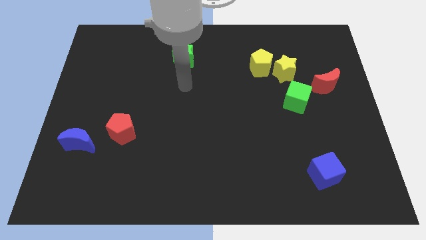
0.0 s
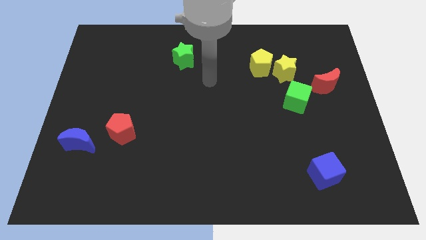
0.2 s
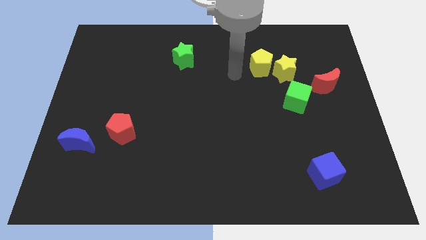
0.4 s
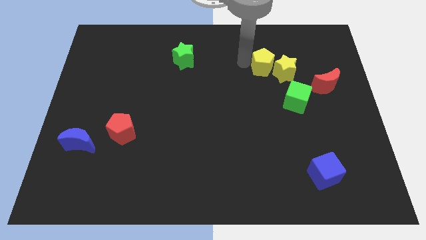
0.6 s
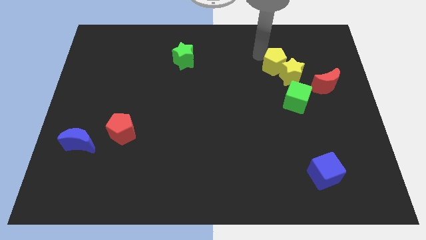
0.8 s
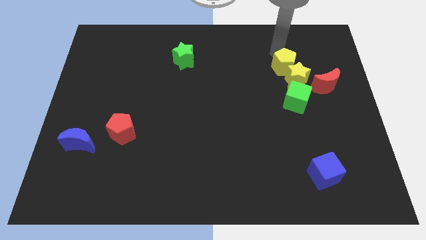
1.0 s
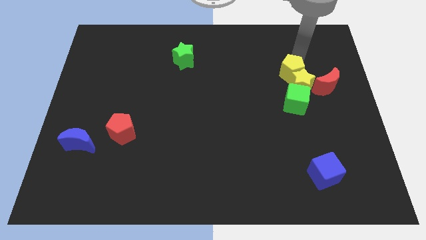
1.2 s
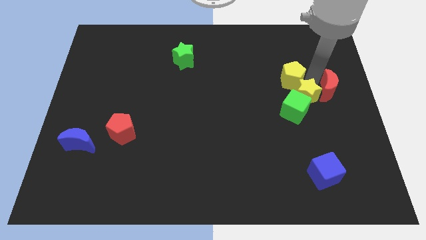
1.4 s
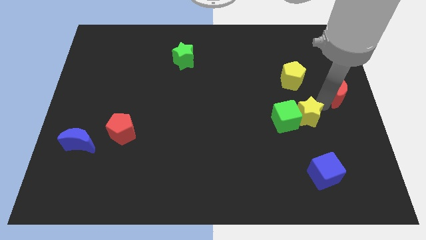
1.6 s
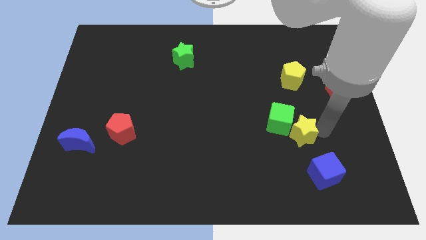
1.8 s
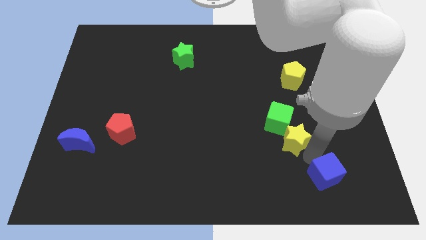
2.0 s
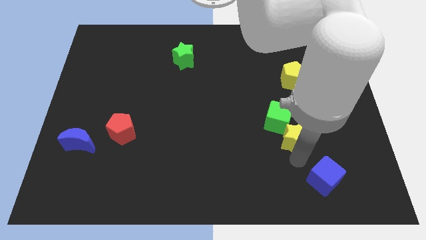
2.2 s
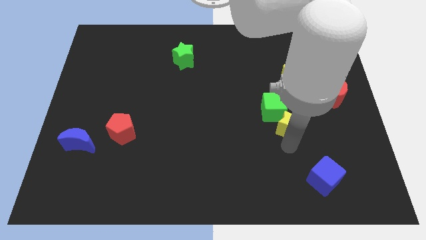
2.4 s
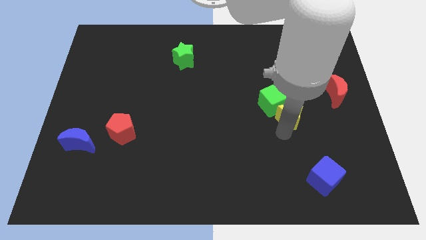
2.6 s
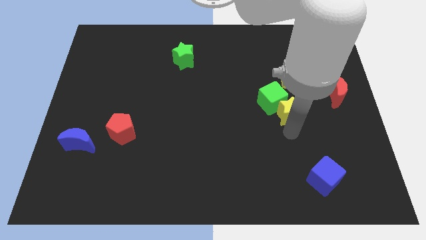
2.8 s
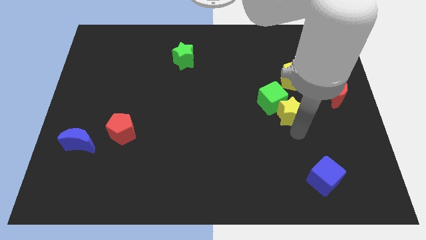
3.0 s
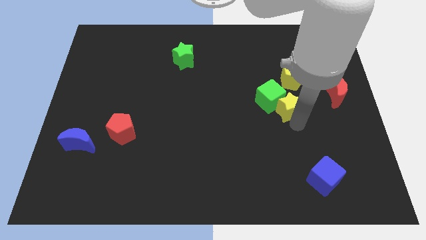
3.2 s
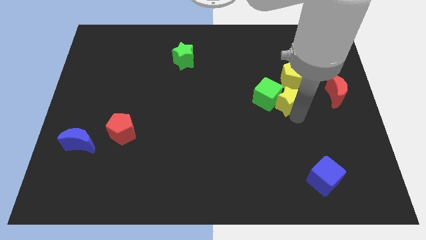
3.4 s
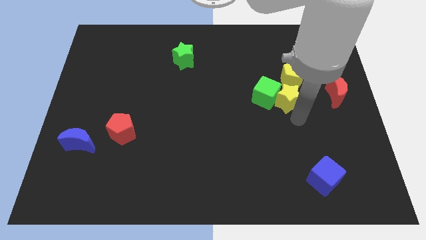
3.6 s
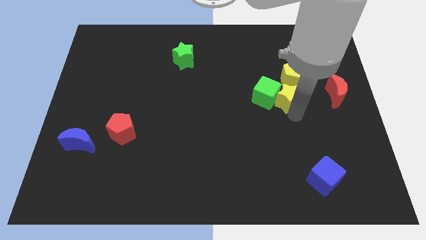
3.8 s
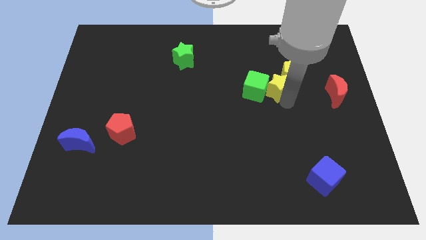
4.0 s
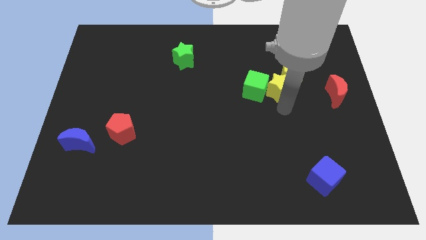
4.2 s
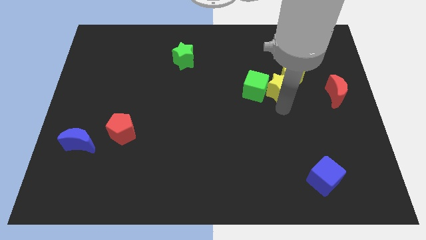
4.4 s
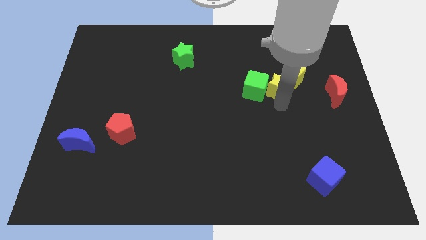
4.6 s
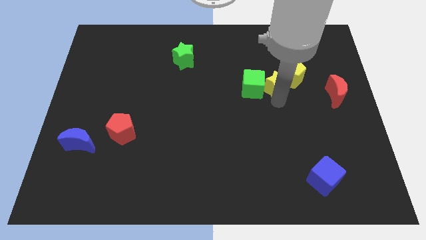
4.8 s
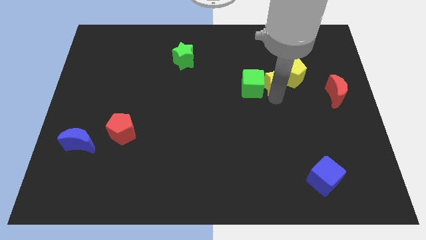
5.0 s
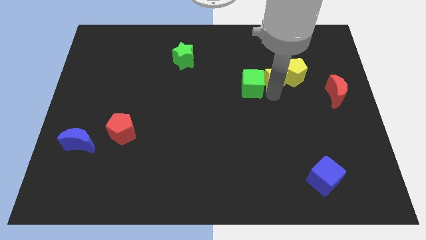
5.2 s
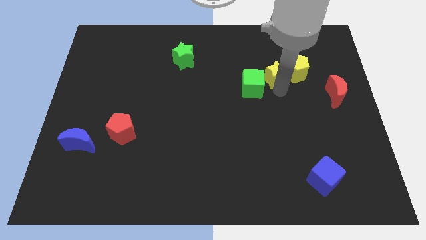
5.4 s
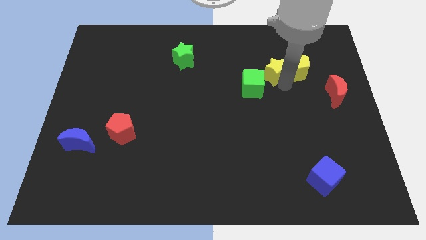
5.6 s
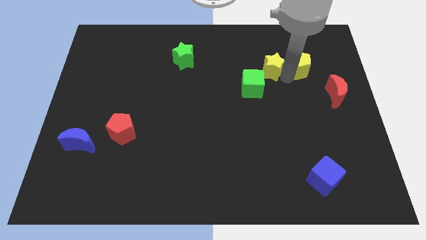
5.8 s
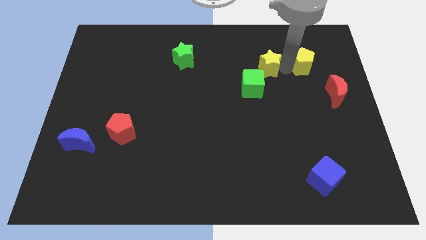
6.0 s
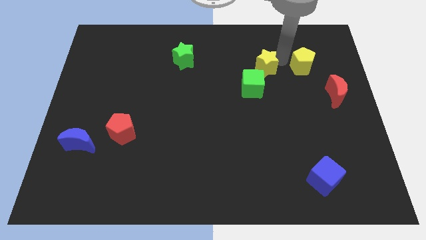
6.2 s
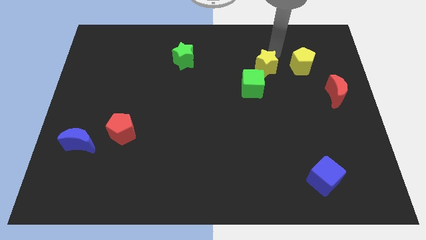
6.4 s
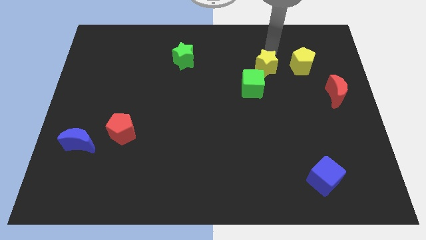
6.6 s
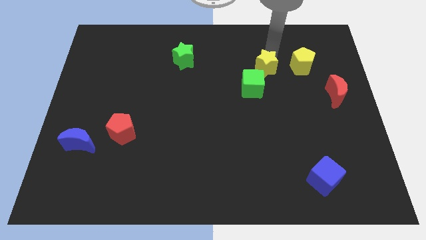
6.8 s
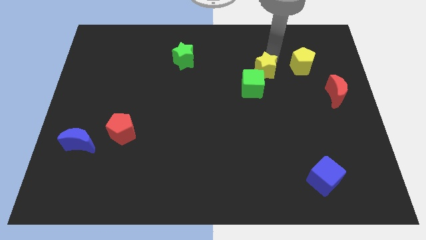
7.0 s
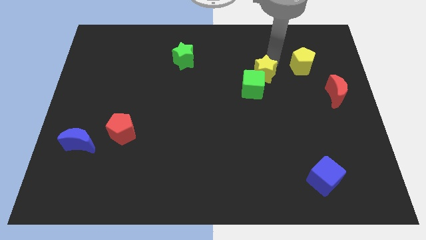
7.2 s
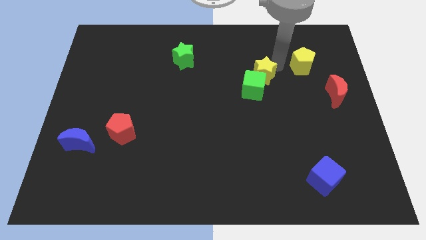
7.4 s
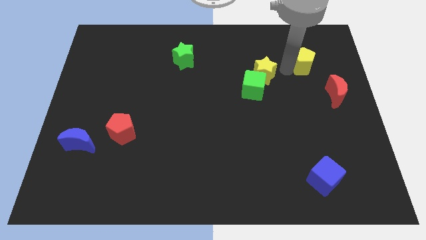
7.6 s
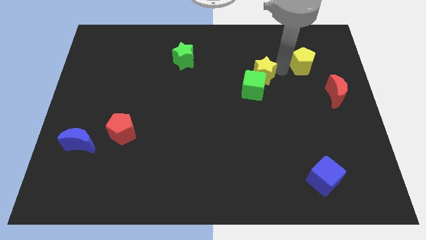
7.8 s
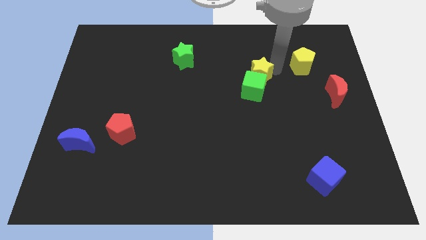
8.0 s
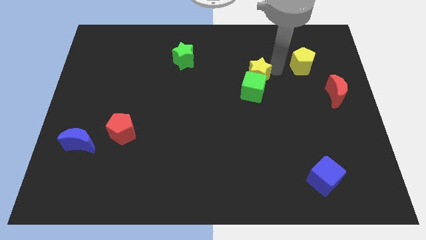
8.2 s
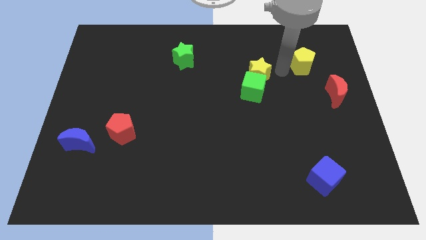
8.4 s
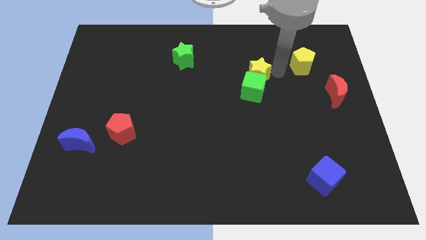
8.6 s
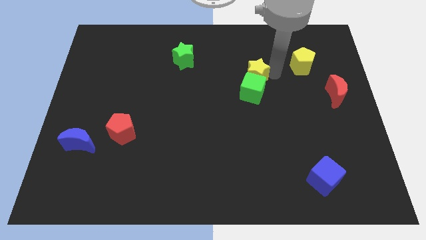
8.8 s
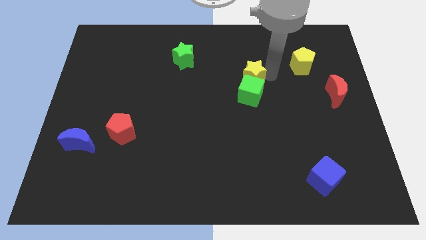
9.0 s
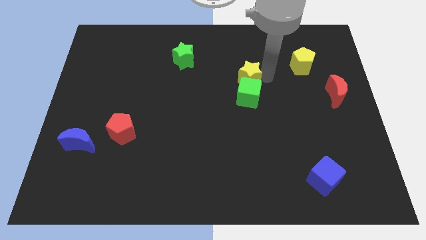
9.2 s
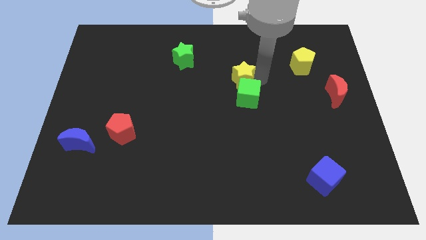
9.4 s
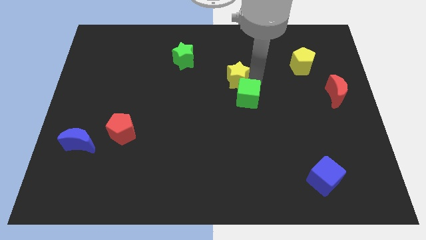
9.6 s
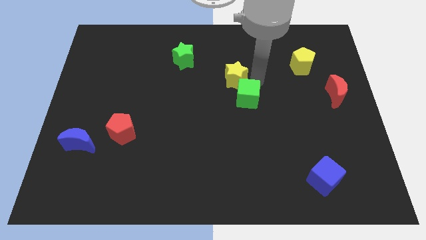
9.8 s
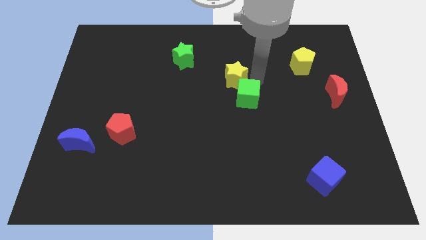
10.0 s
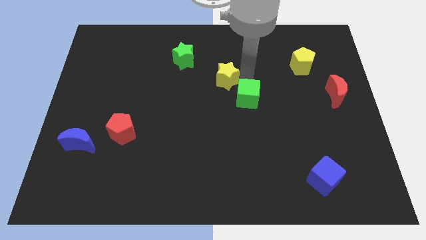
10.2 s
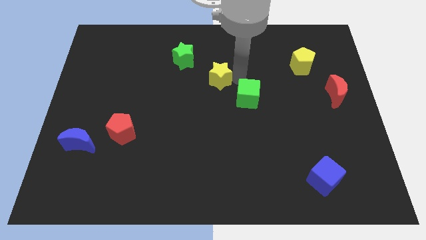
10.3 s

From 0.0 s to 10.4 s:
put the yellow star to the bottom right of the green star

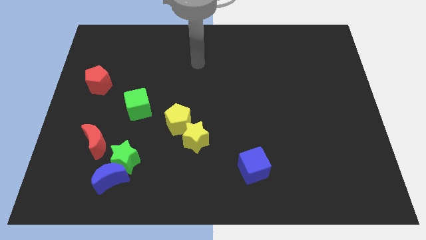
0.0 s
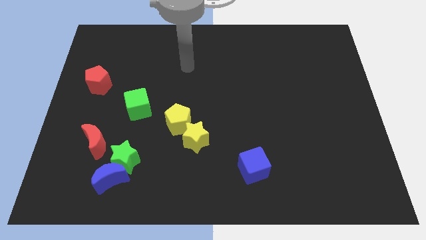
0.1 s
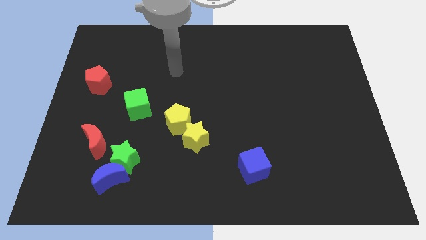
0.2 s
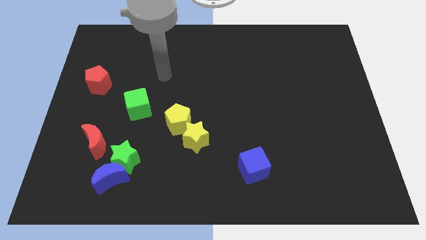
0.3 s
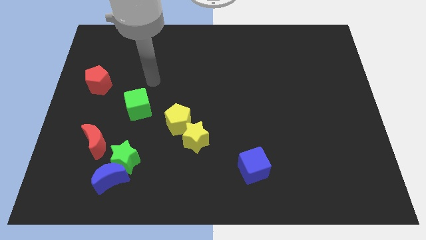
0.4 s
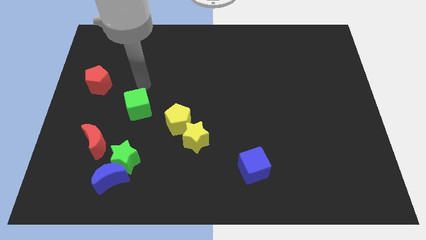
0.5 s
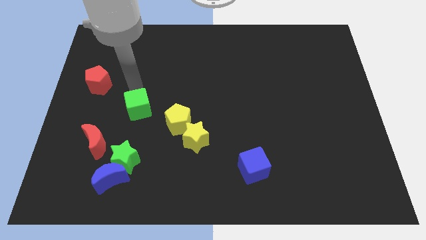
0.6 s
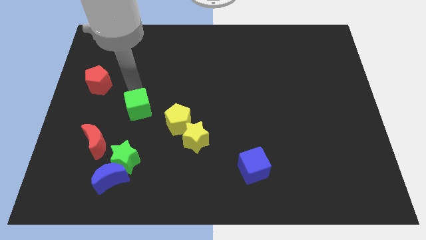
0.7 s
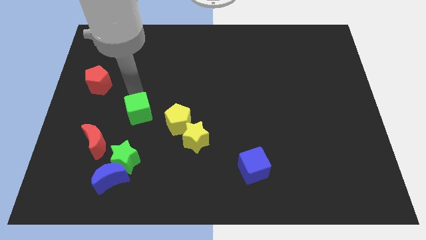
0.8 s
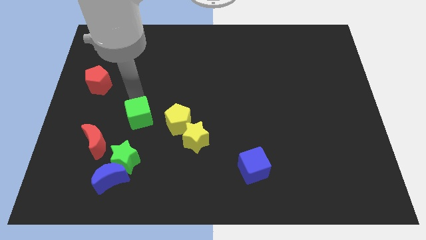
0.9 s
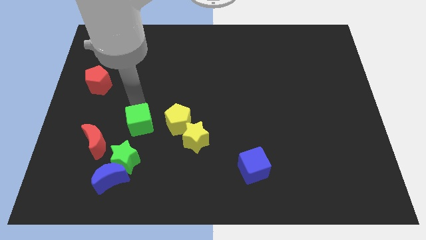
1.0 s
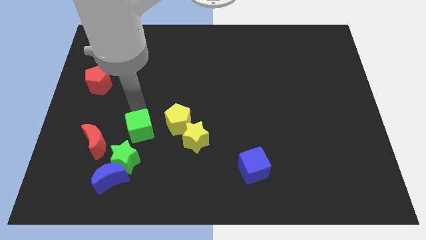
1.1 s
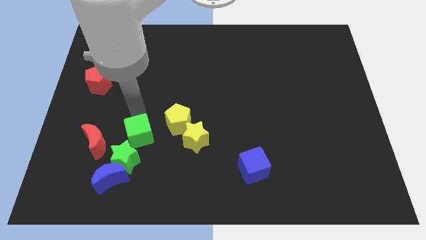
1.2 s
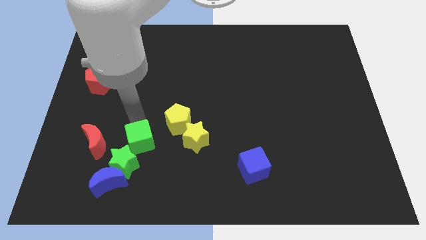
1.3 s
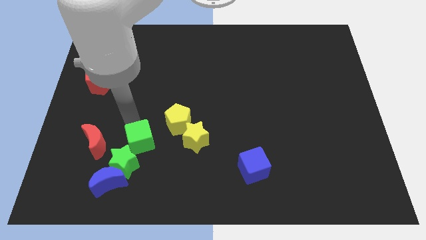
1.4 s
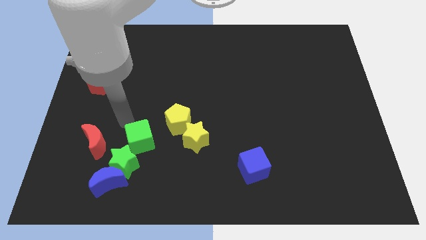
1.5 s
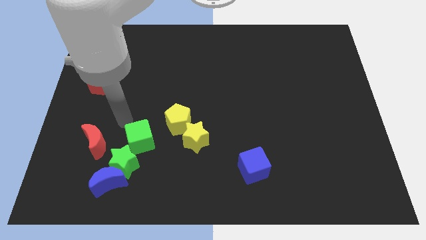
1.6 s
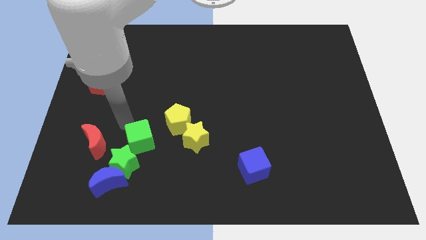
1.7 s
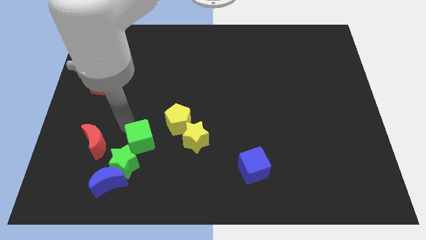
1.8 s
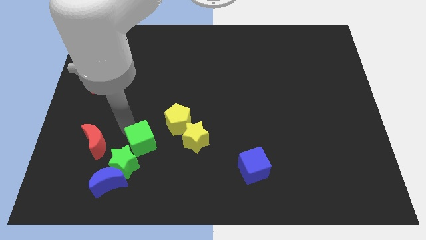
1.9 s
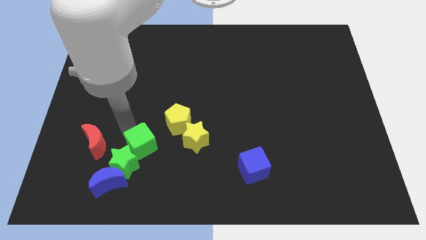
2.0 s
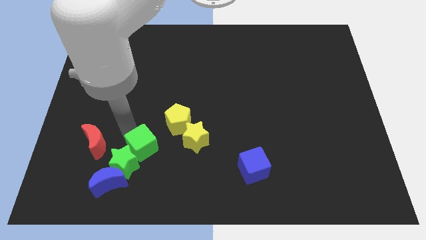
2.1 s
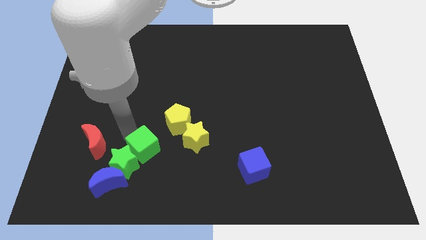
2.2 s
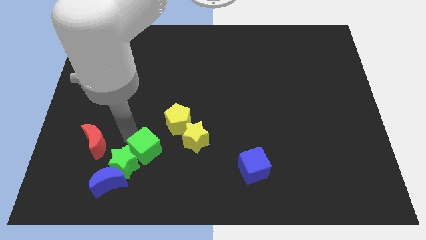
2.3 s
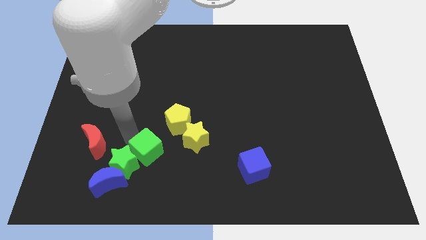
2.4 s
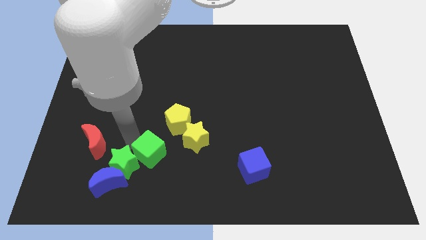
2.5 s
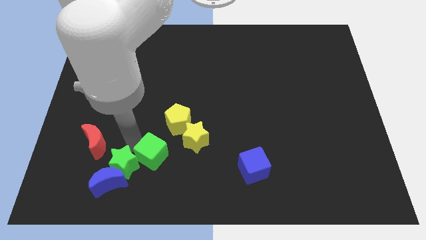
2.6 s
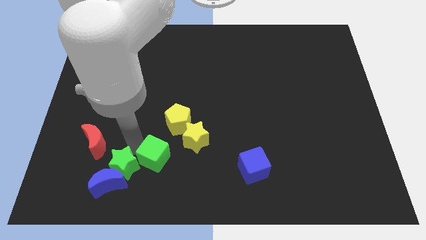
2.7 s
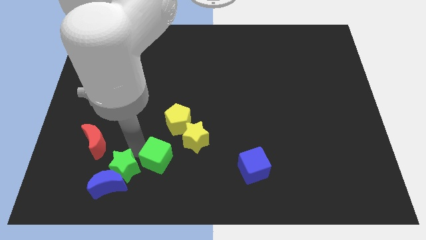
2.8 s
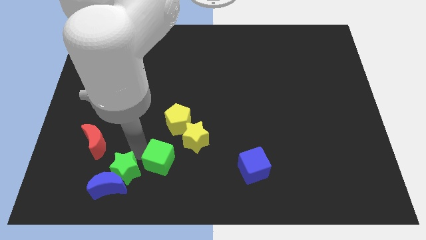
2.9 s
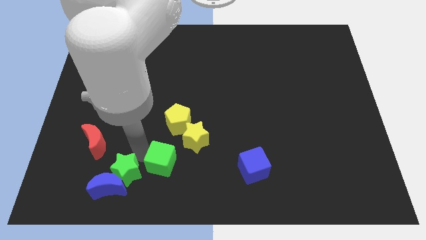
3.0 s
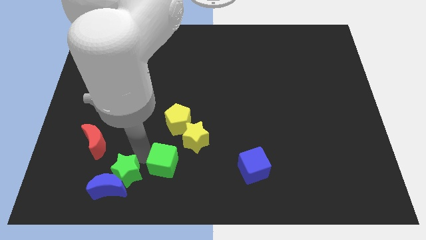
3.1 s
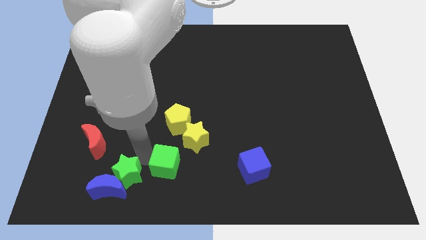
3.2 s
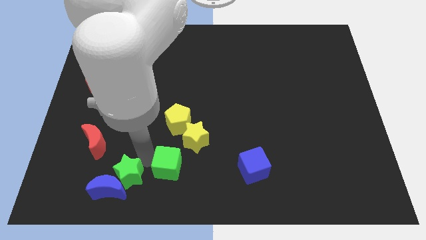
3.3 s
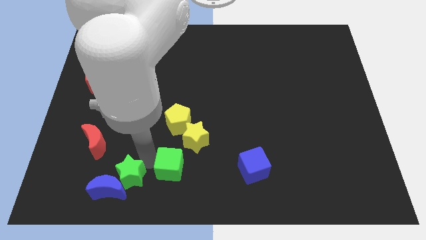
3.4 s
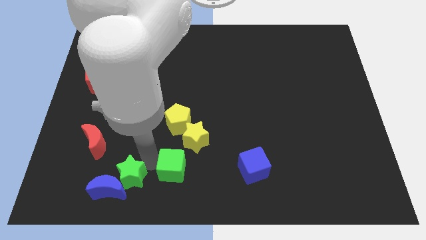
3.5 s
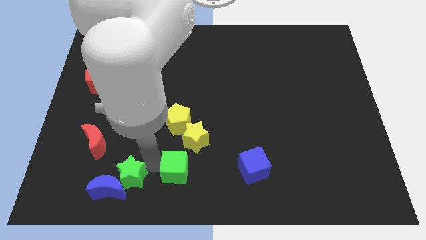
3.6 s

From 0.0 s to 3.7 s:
move the green cube to the left side of the blue cube
